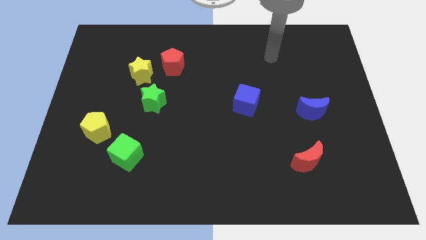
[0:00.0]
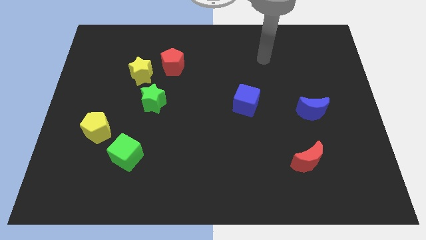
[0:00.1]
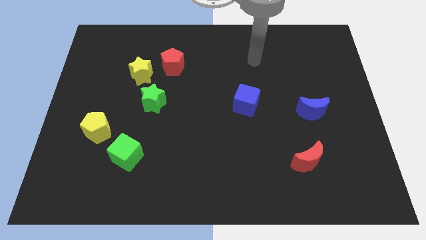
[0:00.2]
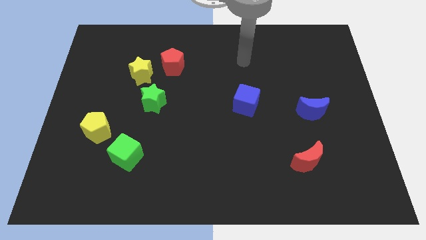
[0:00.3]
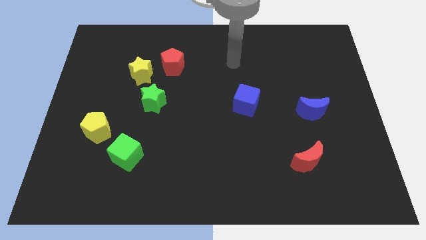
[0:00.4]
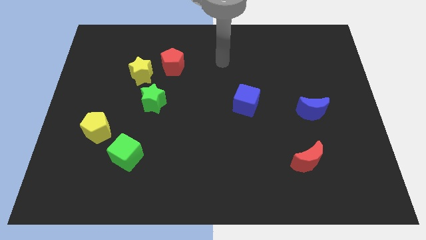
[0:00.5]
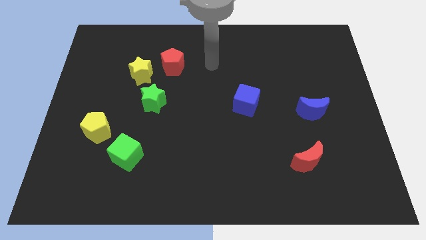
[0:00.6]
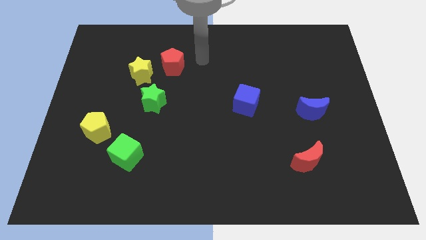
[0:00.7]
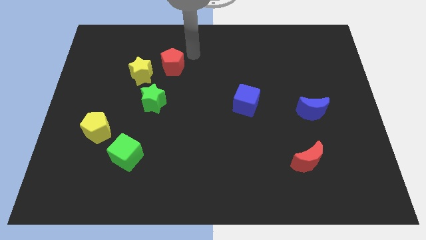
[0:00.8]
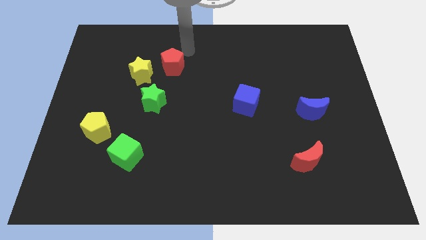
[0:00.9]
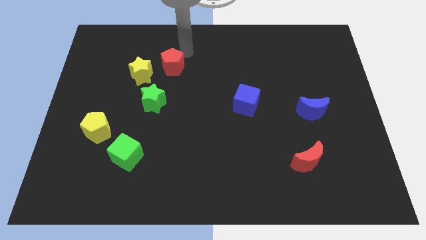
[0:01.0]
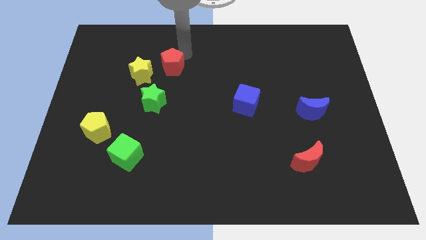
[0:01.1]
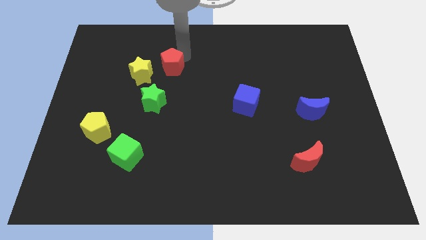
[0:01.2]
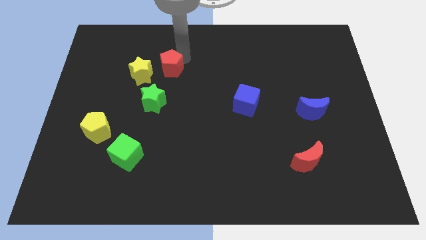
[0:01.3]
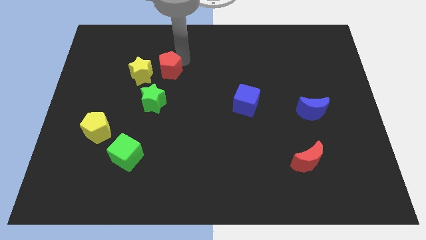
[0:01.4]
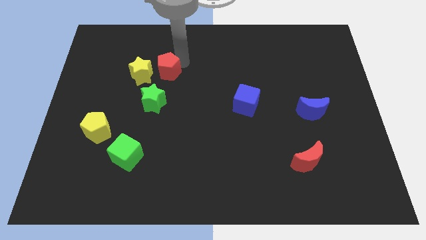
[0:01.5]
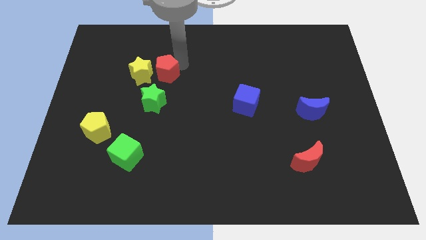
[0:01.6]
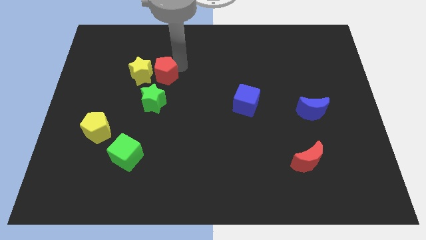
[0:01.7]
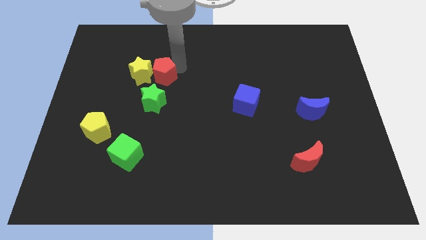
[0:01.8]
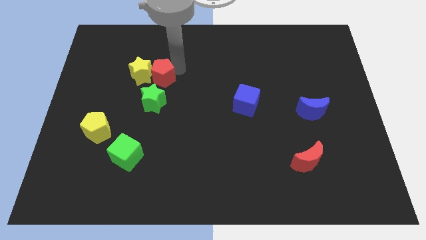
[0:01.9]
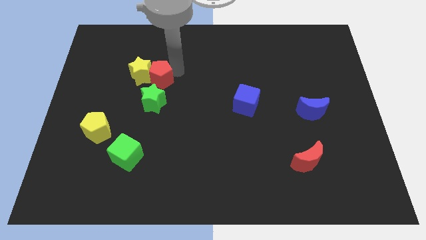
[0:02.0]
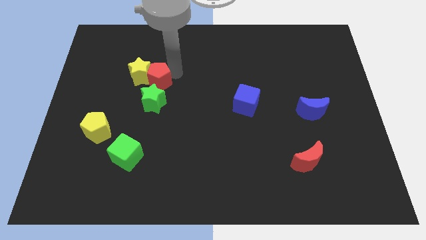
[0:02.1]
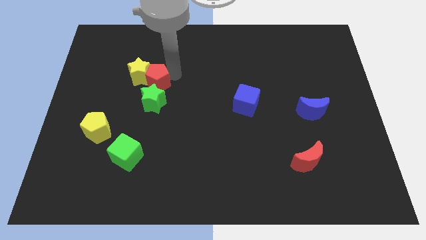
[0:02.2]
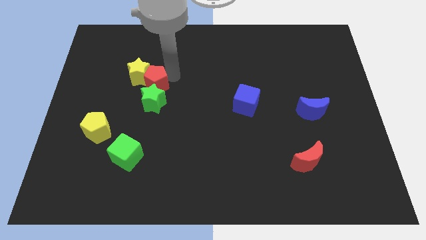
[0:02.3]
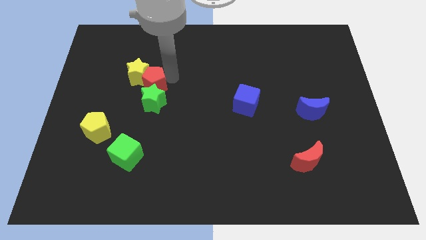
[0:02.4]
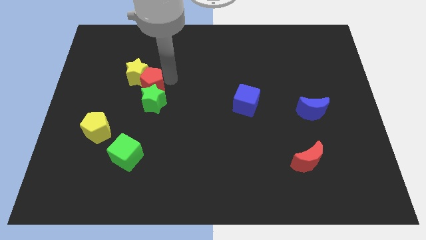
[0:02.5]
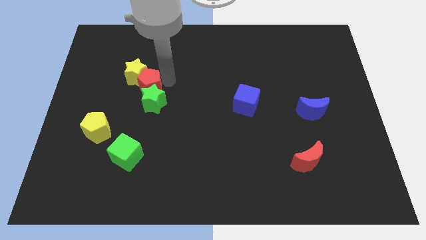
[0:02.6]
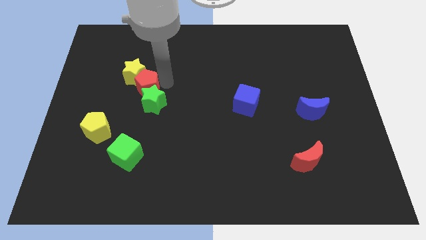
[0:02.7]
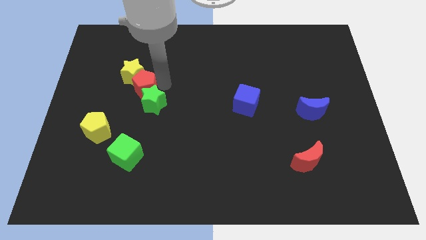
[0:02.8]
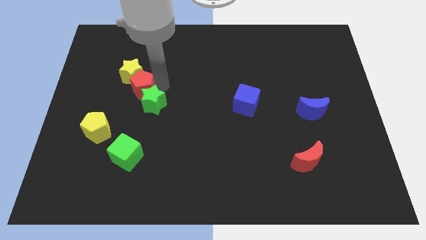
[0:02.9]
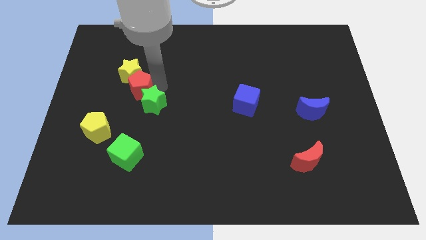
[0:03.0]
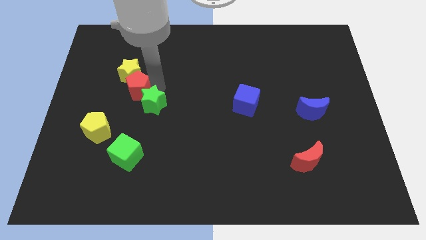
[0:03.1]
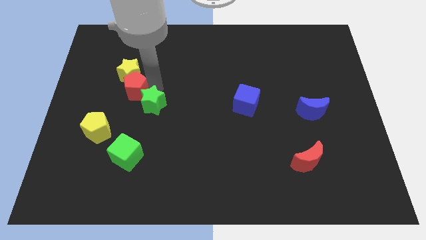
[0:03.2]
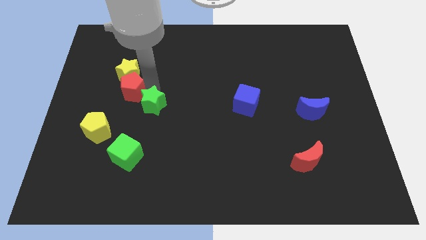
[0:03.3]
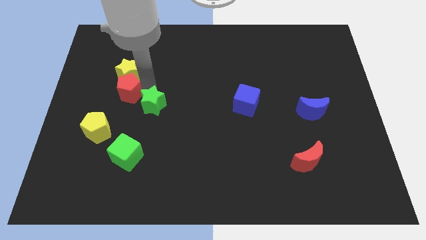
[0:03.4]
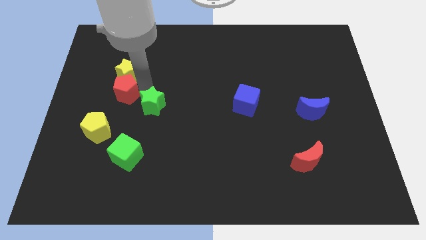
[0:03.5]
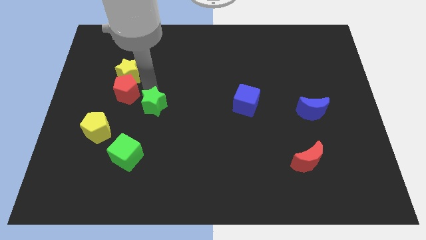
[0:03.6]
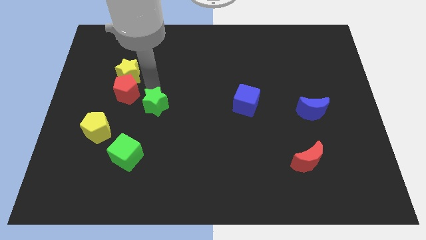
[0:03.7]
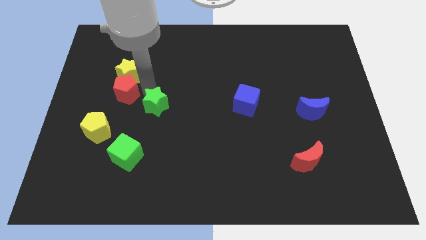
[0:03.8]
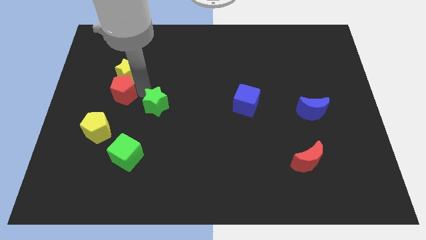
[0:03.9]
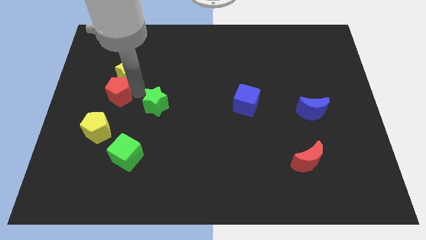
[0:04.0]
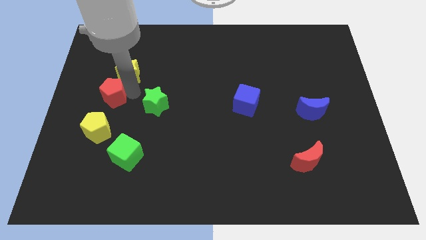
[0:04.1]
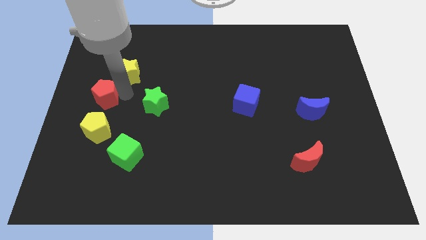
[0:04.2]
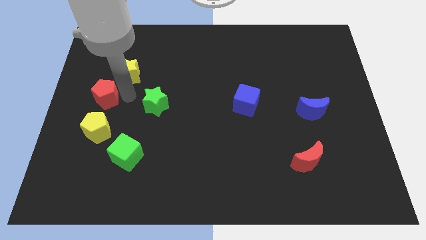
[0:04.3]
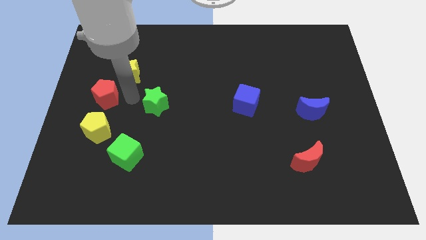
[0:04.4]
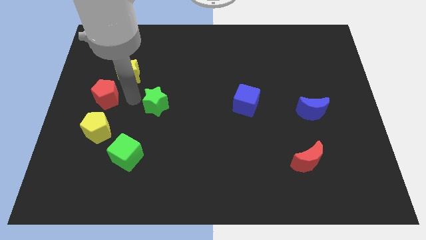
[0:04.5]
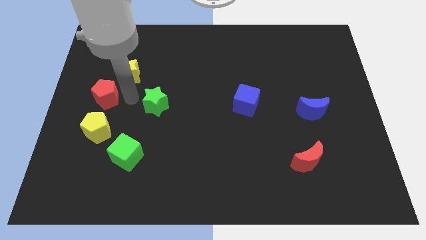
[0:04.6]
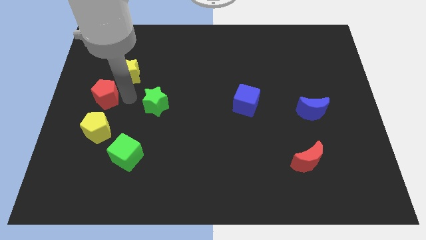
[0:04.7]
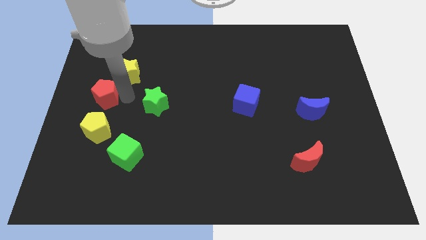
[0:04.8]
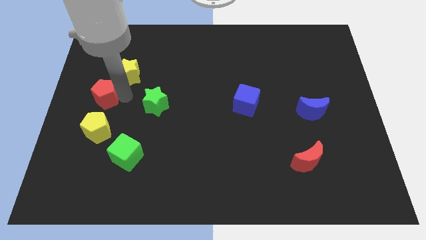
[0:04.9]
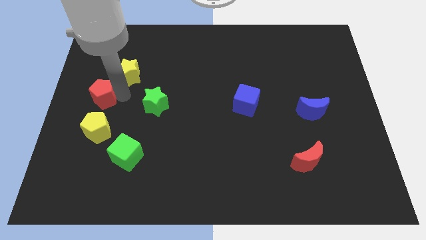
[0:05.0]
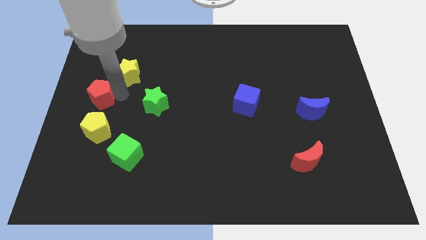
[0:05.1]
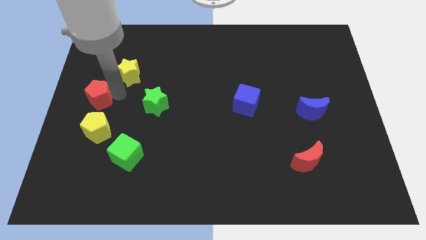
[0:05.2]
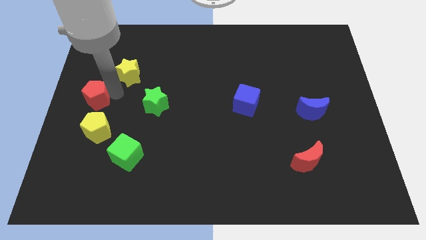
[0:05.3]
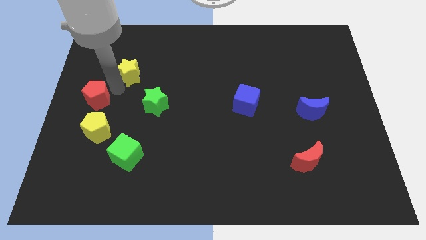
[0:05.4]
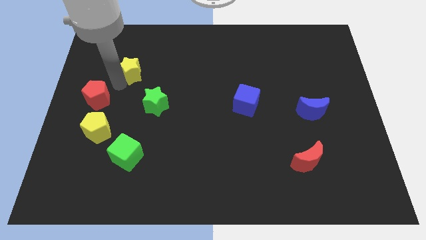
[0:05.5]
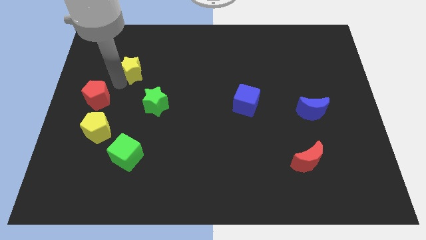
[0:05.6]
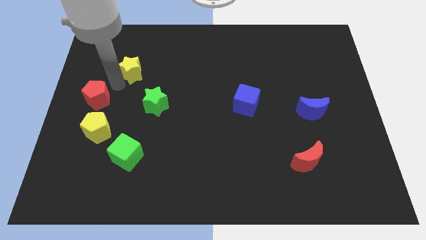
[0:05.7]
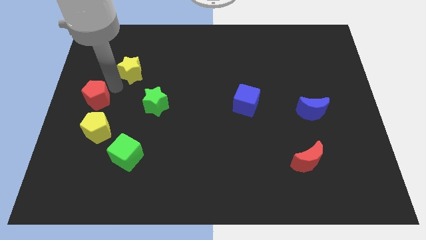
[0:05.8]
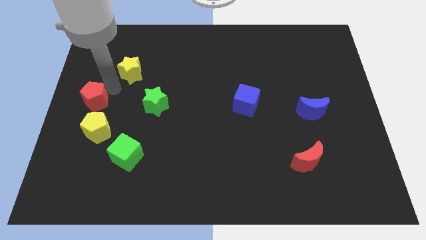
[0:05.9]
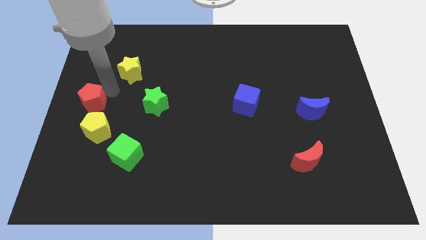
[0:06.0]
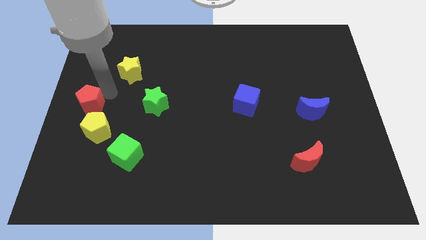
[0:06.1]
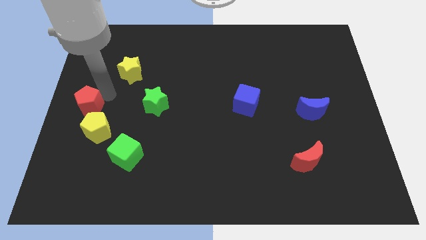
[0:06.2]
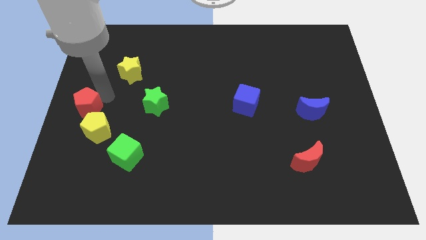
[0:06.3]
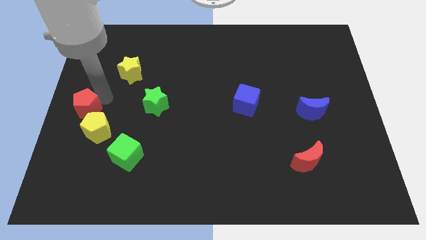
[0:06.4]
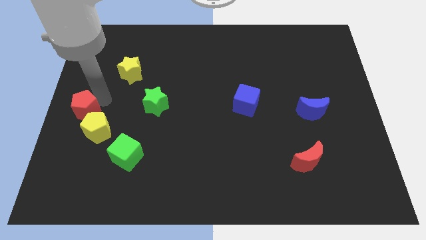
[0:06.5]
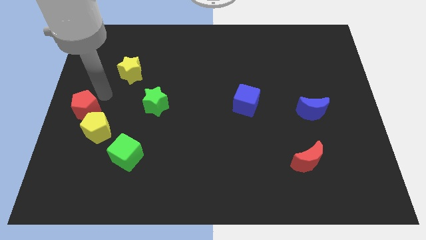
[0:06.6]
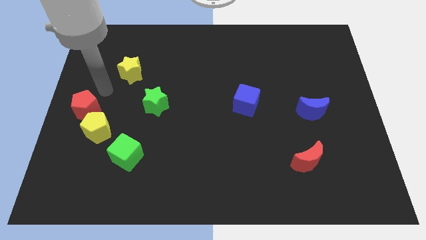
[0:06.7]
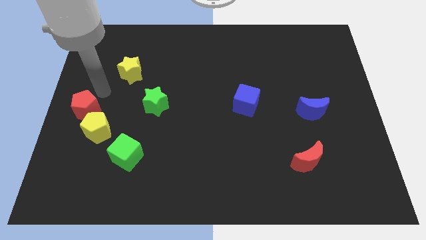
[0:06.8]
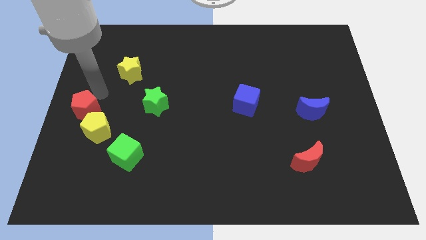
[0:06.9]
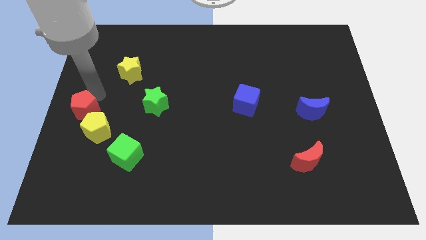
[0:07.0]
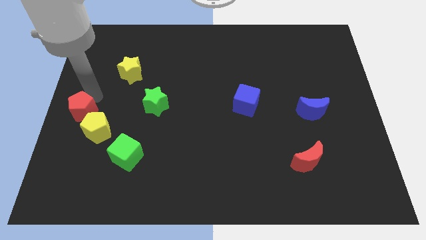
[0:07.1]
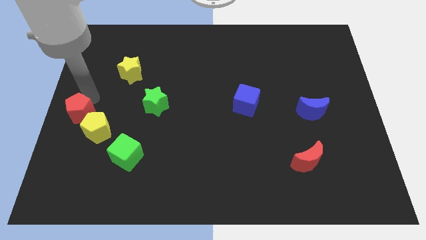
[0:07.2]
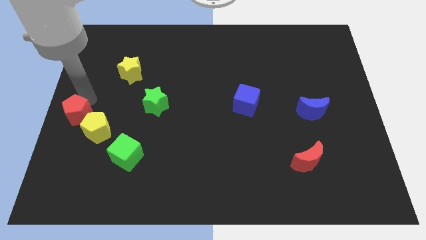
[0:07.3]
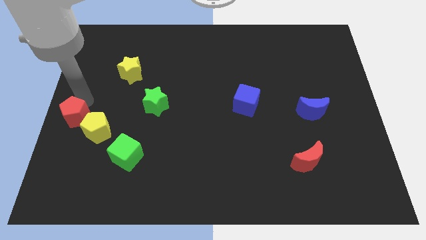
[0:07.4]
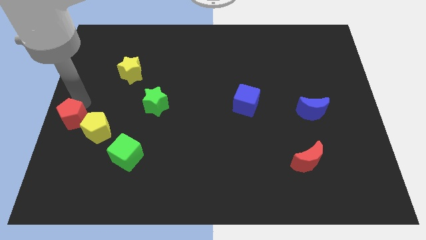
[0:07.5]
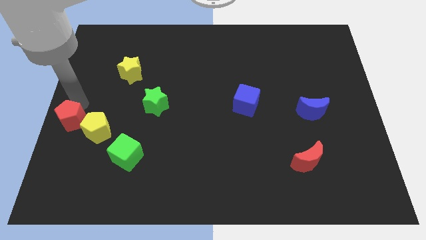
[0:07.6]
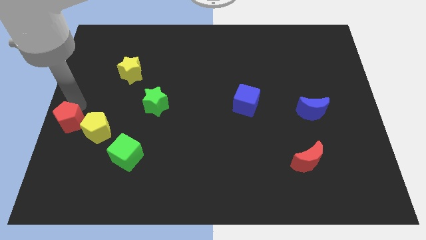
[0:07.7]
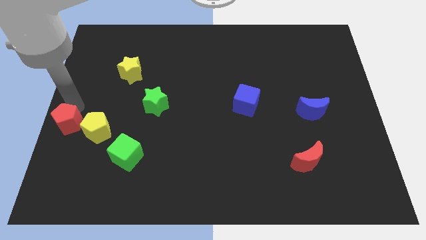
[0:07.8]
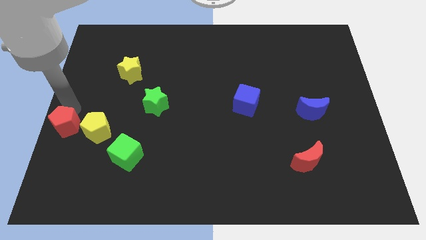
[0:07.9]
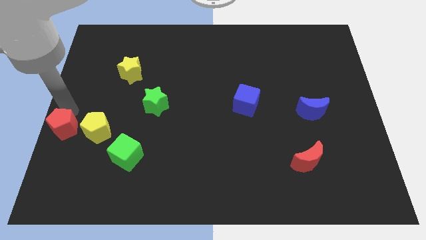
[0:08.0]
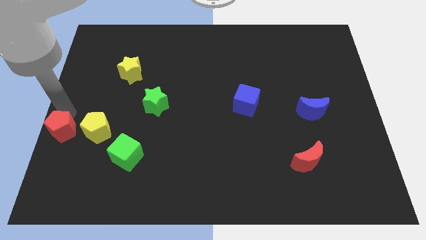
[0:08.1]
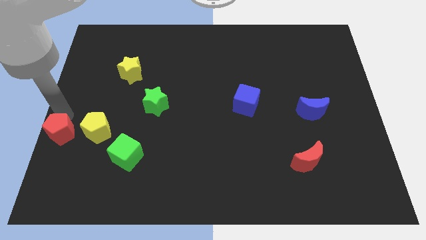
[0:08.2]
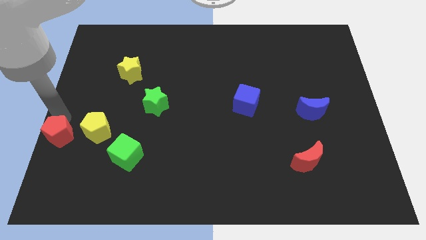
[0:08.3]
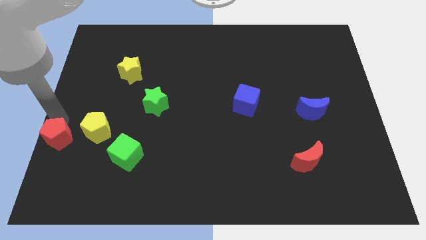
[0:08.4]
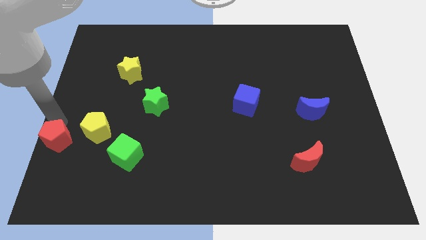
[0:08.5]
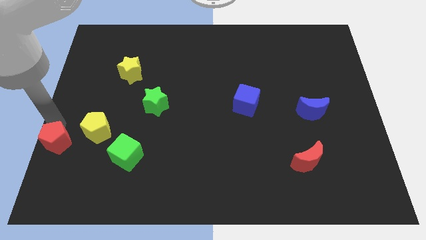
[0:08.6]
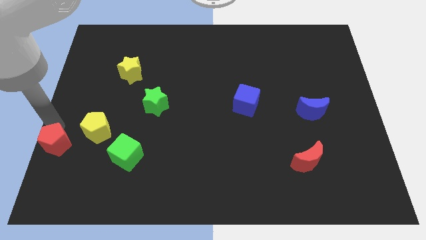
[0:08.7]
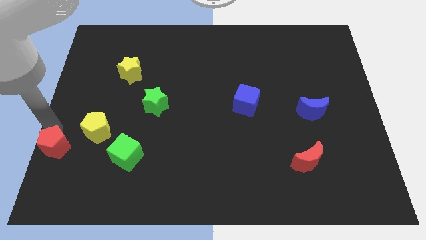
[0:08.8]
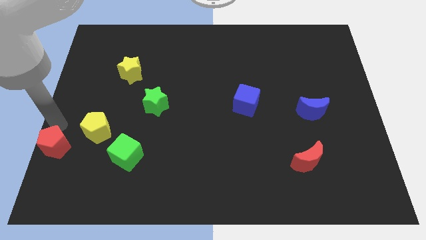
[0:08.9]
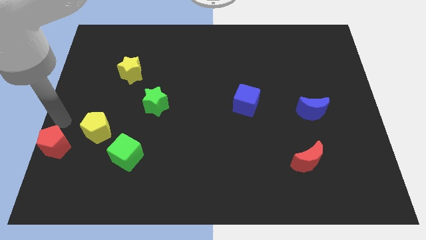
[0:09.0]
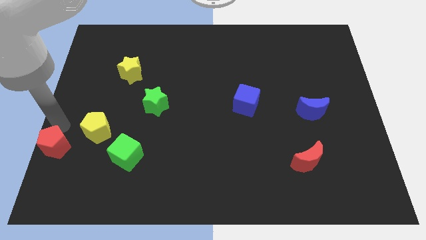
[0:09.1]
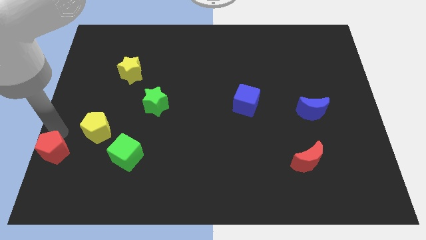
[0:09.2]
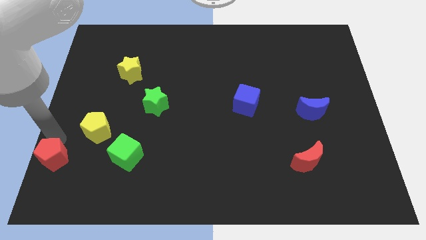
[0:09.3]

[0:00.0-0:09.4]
move the red pentagon to the bottom left of the board
